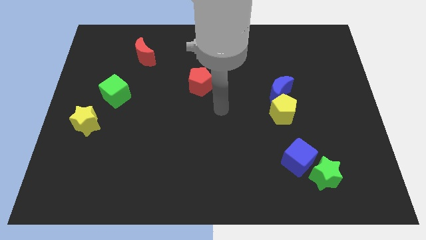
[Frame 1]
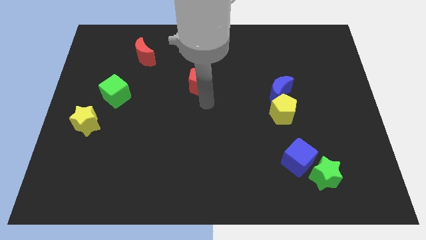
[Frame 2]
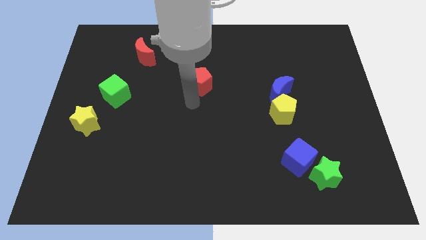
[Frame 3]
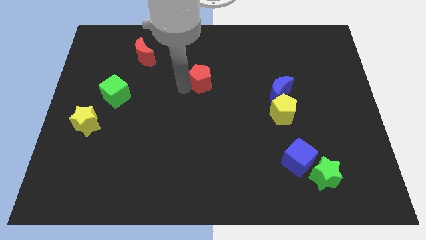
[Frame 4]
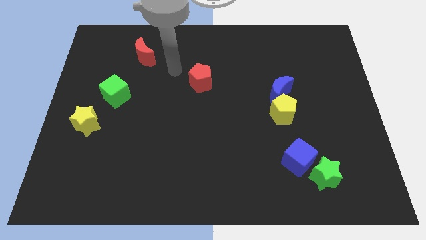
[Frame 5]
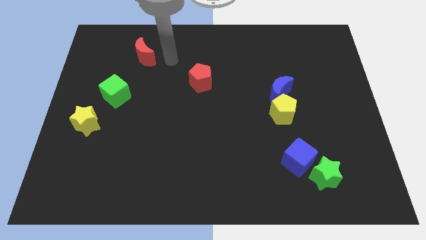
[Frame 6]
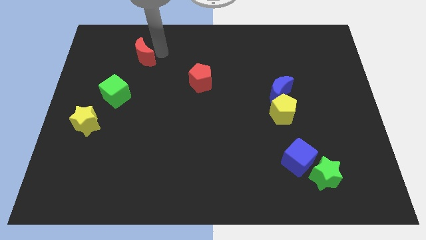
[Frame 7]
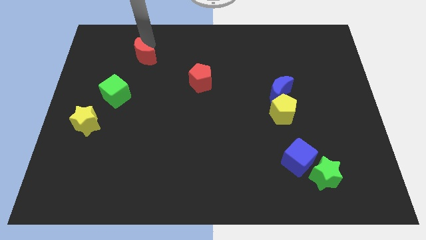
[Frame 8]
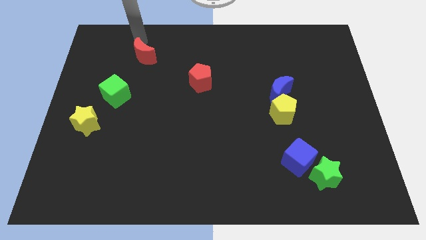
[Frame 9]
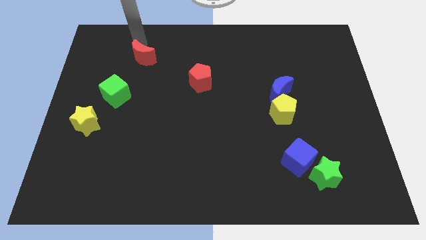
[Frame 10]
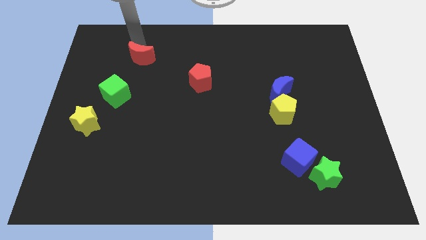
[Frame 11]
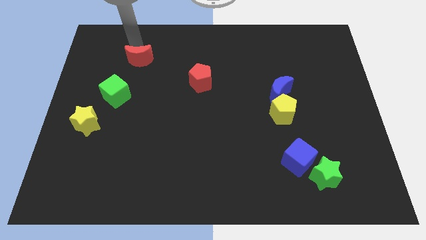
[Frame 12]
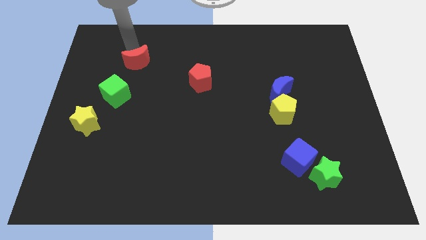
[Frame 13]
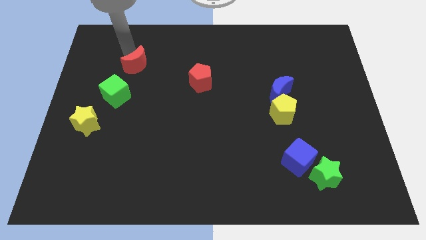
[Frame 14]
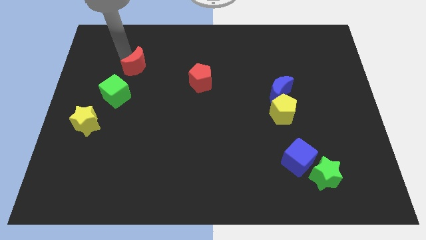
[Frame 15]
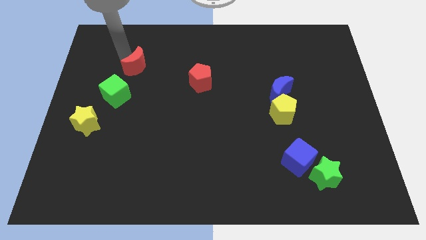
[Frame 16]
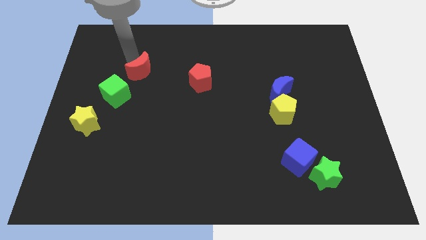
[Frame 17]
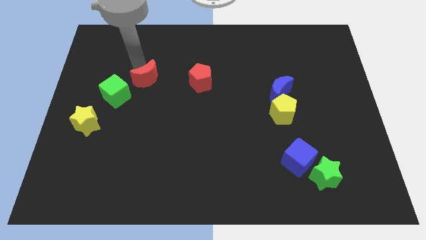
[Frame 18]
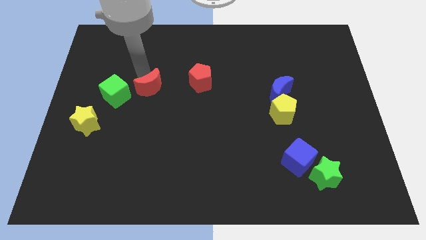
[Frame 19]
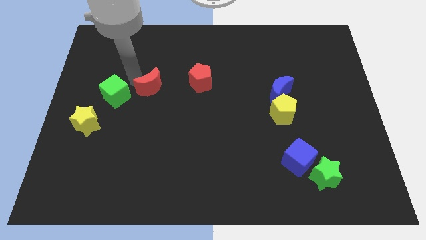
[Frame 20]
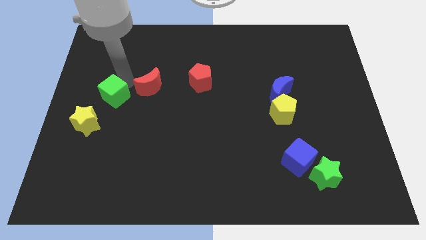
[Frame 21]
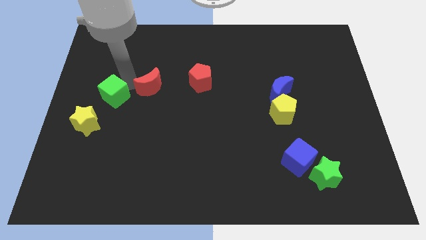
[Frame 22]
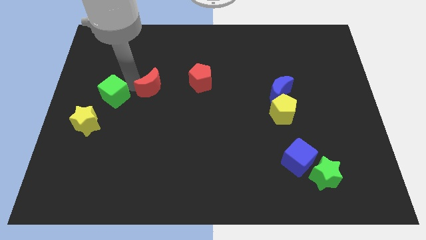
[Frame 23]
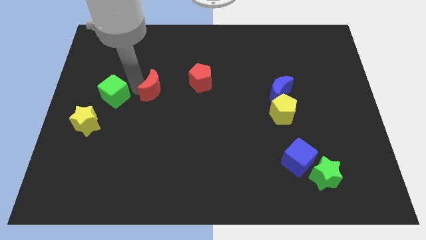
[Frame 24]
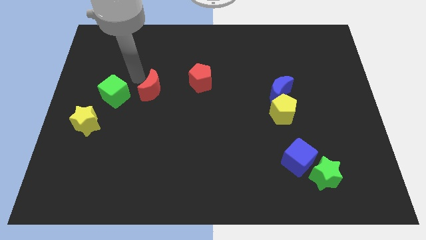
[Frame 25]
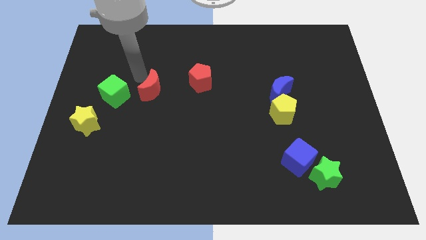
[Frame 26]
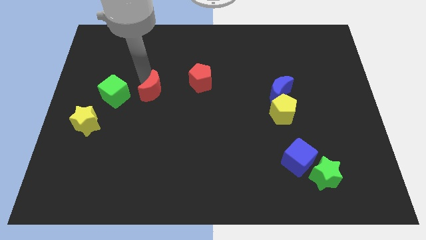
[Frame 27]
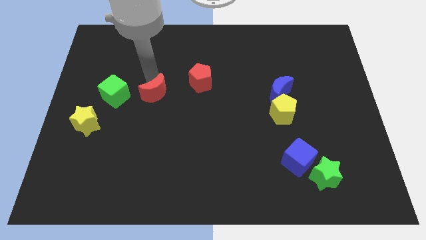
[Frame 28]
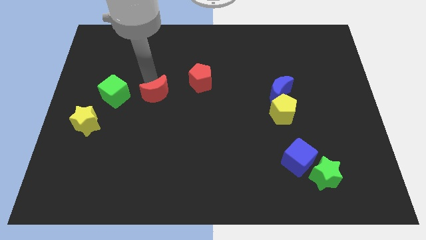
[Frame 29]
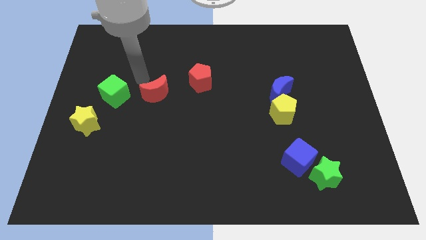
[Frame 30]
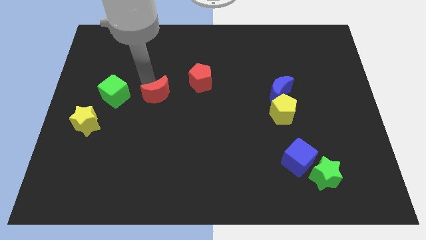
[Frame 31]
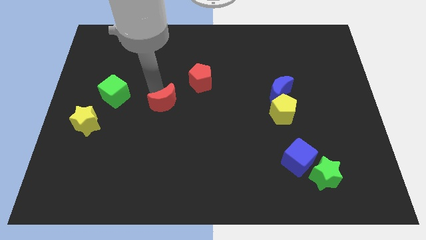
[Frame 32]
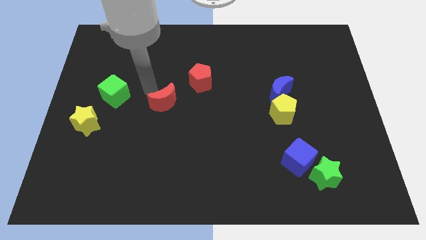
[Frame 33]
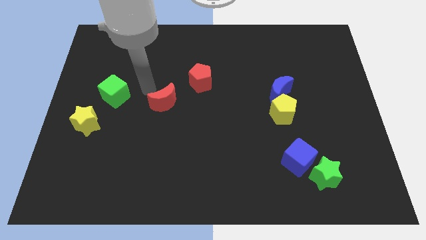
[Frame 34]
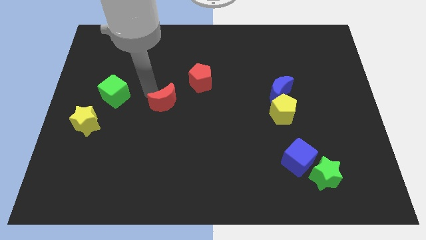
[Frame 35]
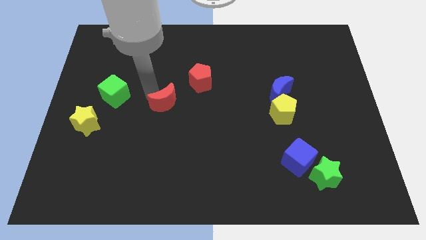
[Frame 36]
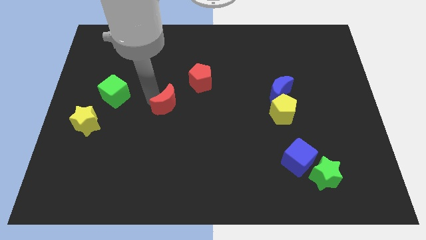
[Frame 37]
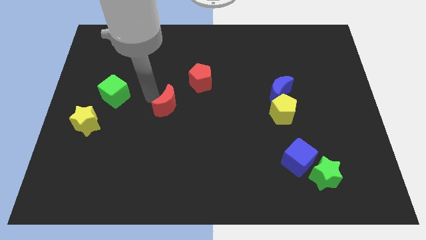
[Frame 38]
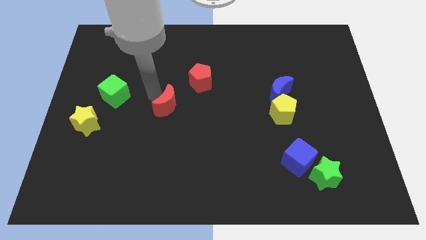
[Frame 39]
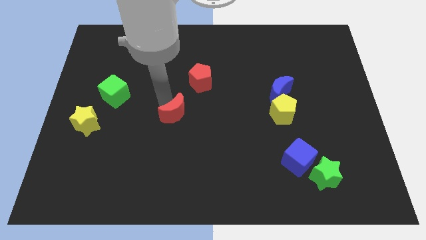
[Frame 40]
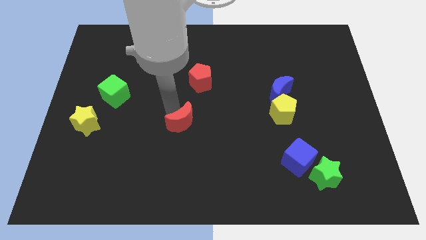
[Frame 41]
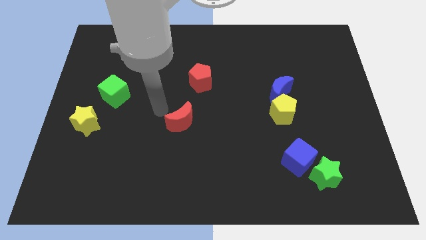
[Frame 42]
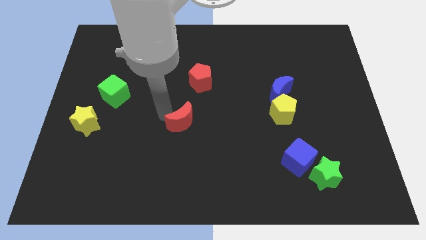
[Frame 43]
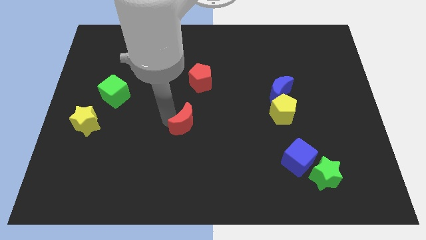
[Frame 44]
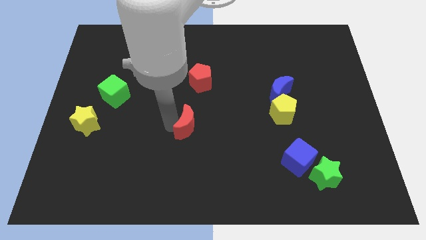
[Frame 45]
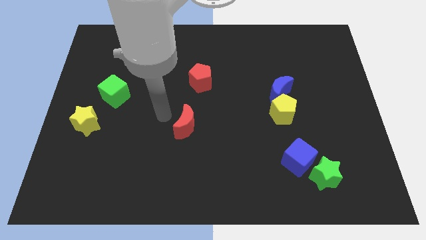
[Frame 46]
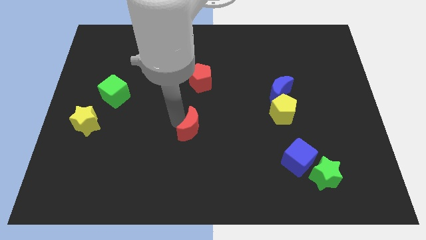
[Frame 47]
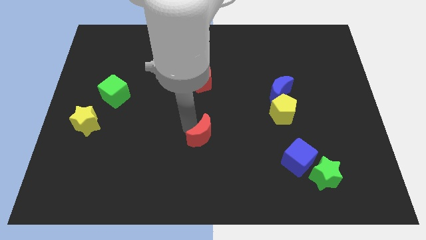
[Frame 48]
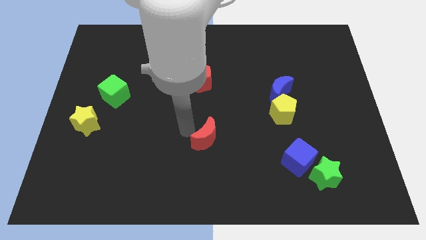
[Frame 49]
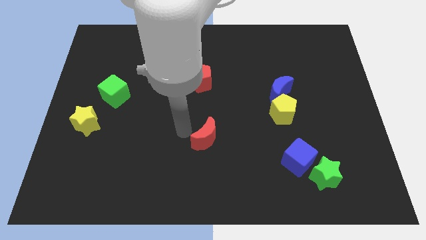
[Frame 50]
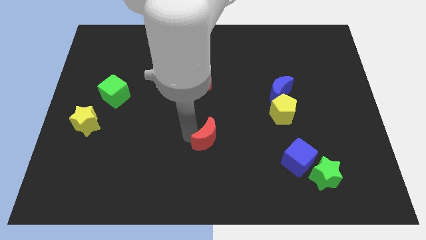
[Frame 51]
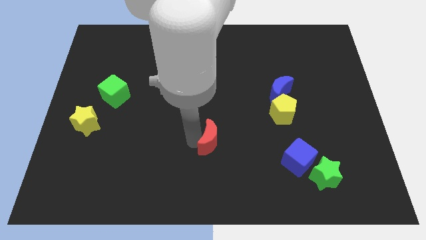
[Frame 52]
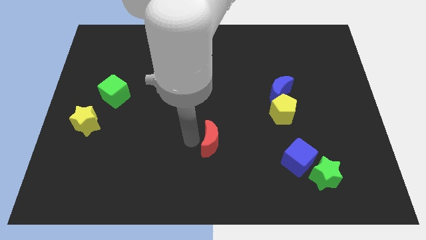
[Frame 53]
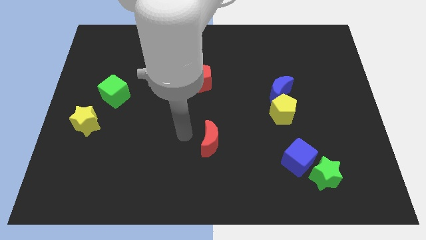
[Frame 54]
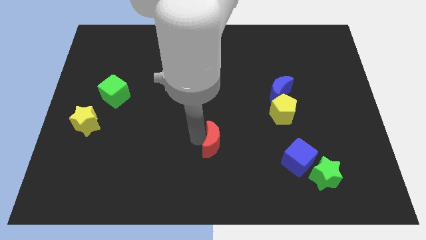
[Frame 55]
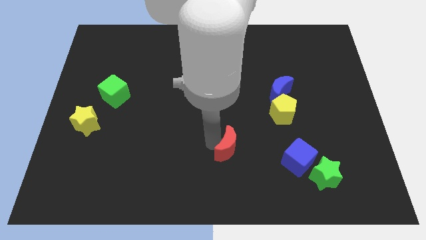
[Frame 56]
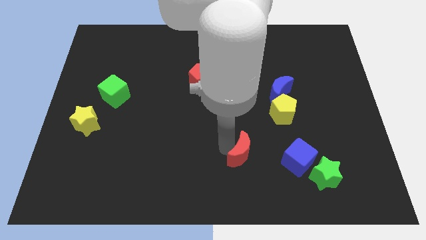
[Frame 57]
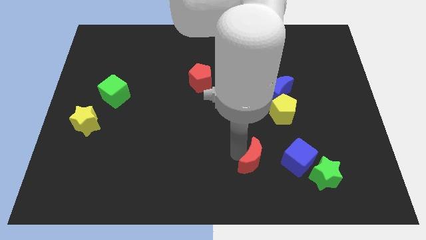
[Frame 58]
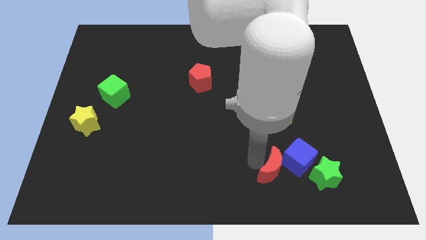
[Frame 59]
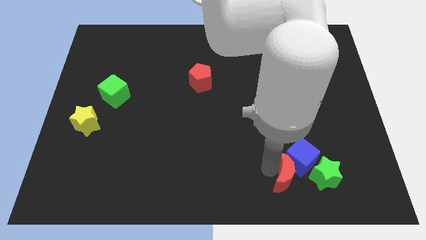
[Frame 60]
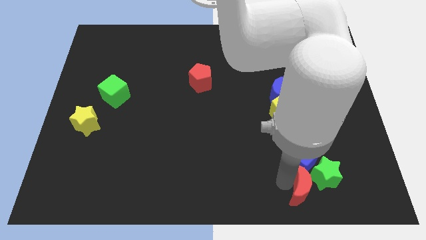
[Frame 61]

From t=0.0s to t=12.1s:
move the red moon next to the green star
